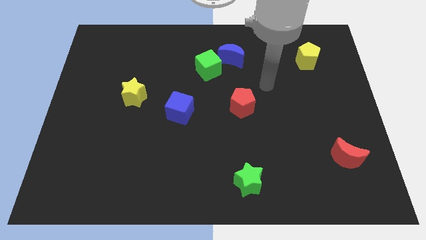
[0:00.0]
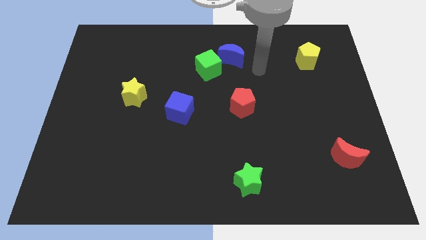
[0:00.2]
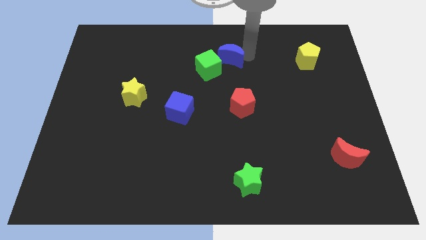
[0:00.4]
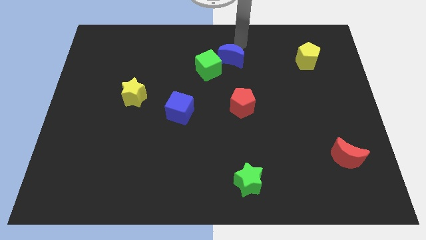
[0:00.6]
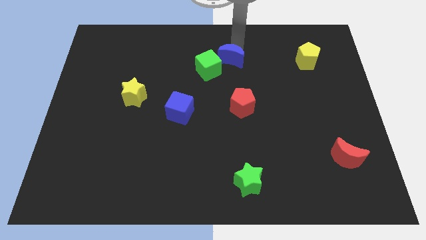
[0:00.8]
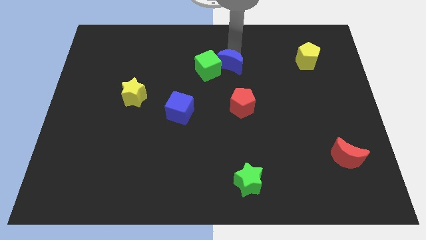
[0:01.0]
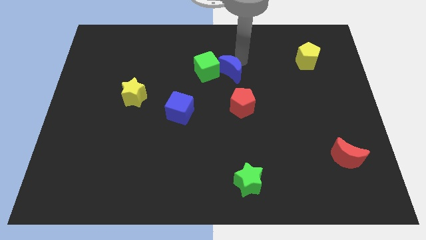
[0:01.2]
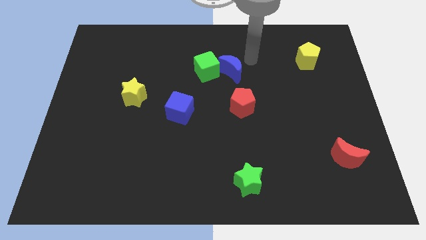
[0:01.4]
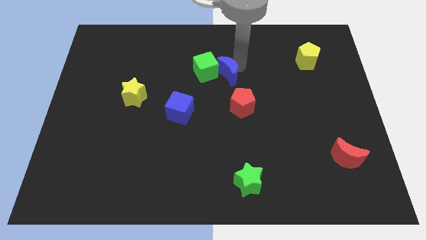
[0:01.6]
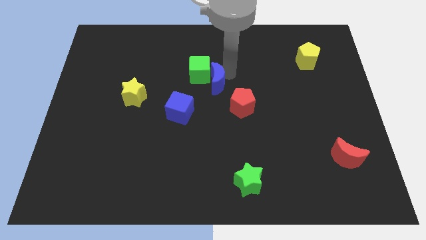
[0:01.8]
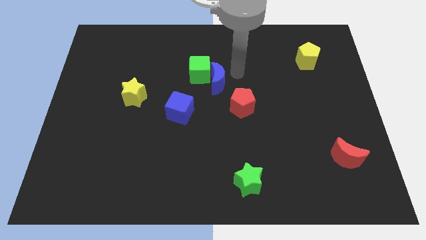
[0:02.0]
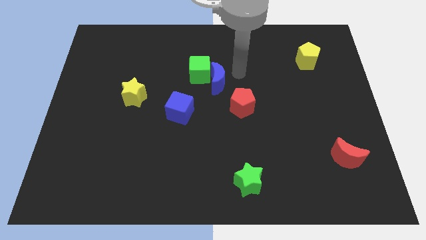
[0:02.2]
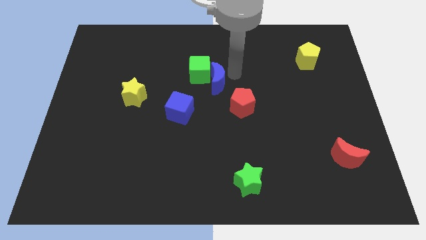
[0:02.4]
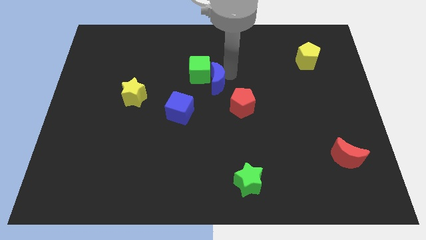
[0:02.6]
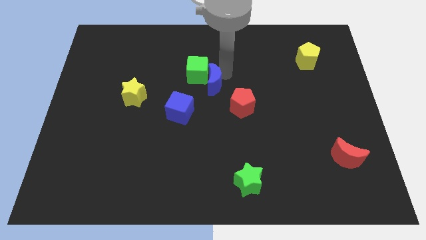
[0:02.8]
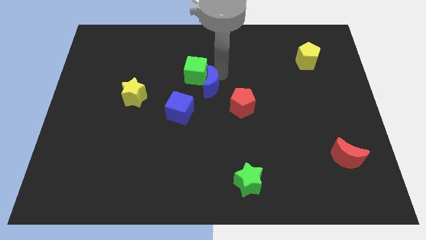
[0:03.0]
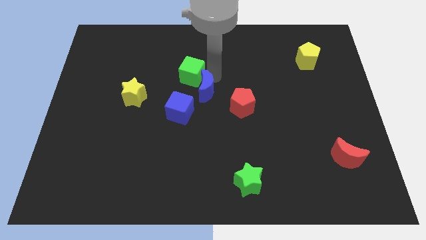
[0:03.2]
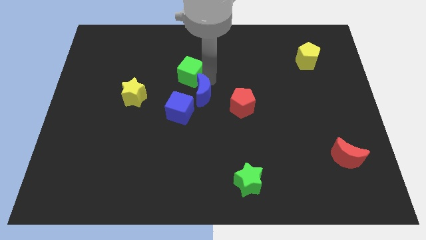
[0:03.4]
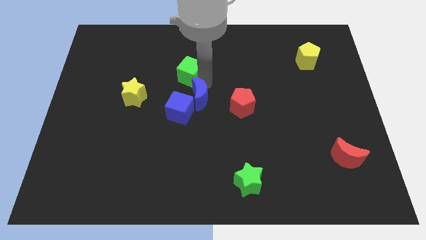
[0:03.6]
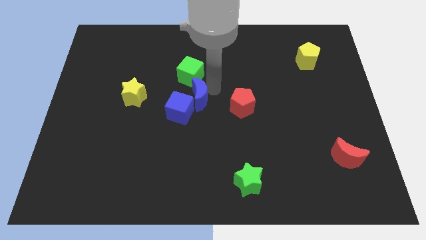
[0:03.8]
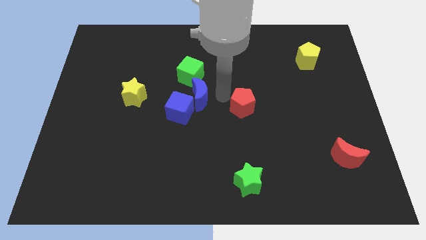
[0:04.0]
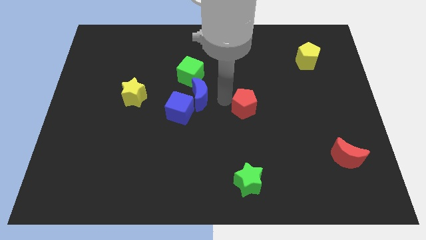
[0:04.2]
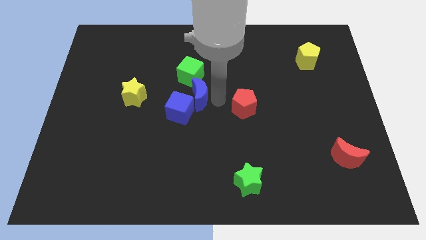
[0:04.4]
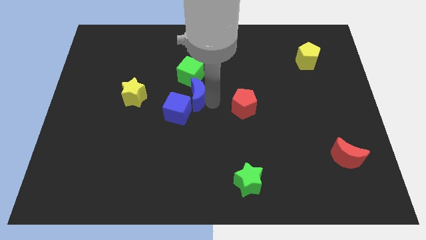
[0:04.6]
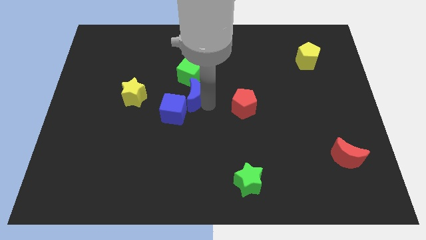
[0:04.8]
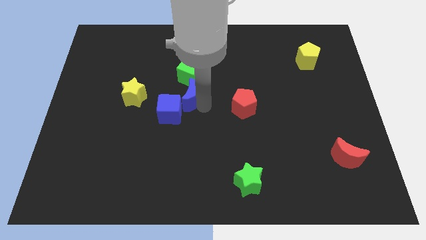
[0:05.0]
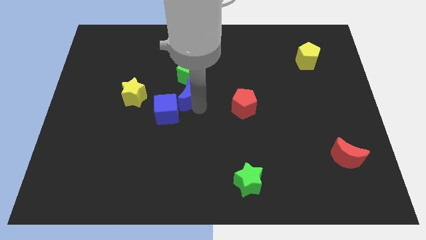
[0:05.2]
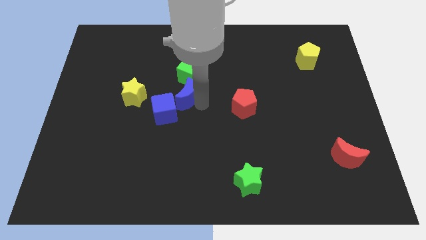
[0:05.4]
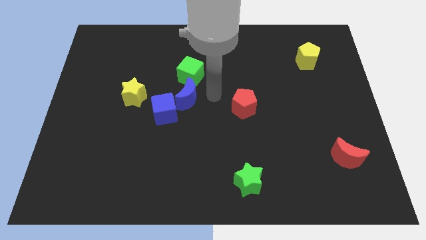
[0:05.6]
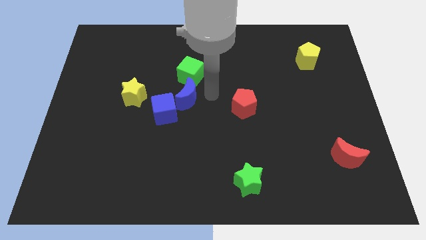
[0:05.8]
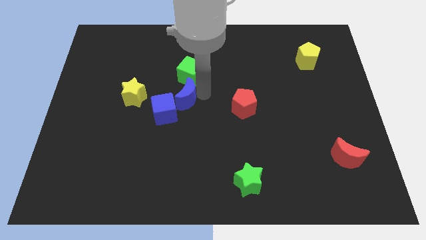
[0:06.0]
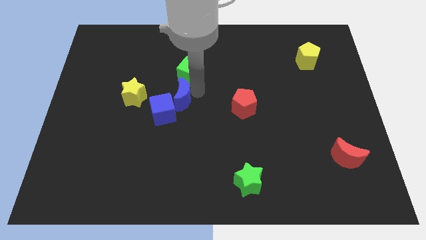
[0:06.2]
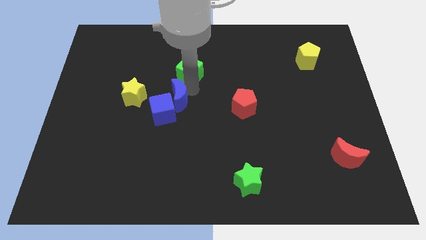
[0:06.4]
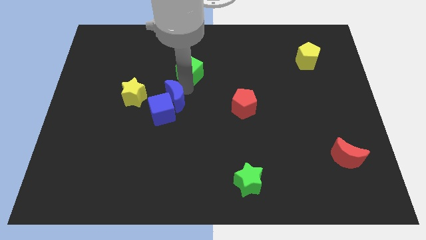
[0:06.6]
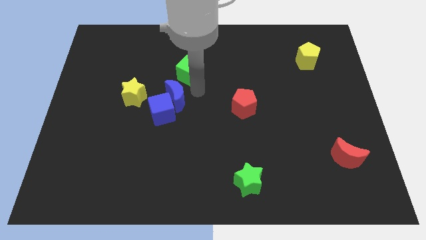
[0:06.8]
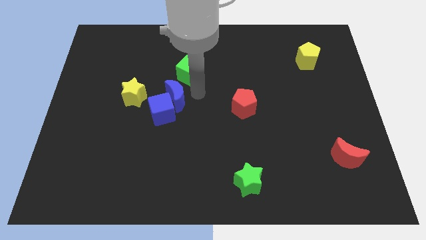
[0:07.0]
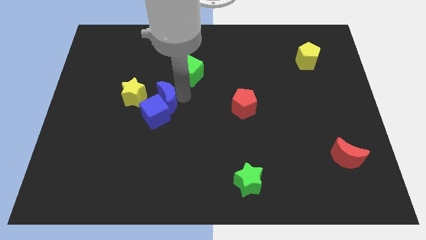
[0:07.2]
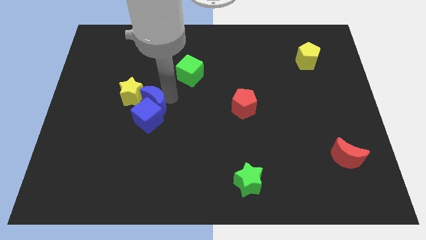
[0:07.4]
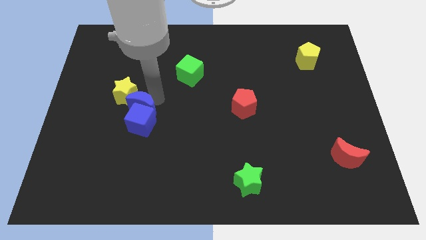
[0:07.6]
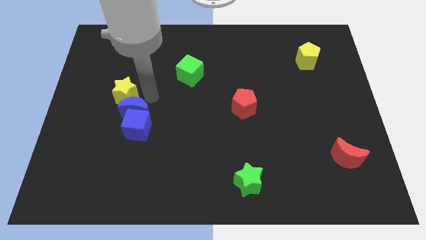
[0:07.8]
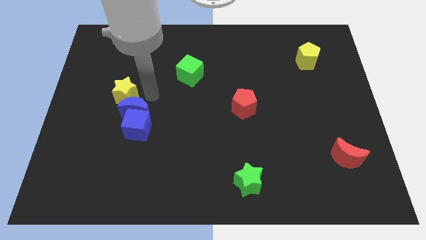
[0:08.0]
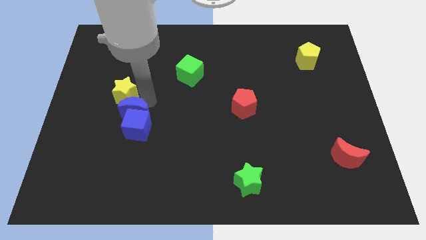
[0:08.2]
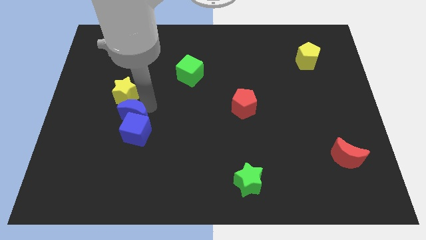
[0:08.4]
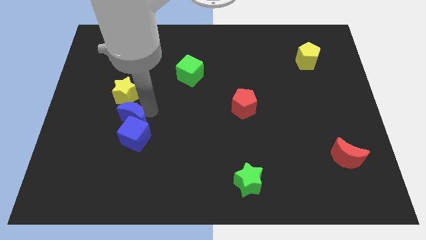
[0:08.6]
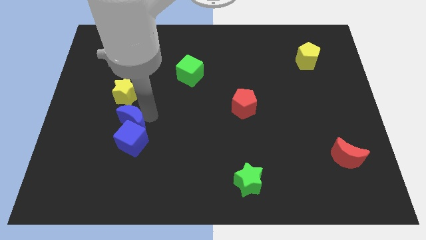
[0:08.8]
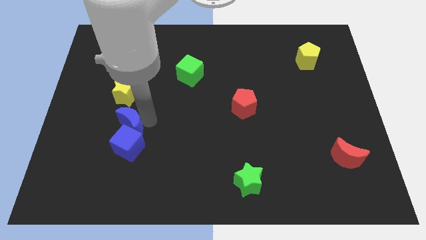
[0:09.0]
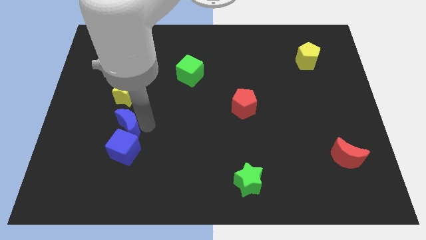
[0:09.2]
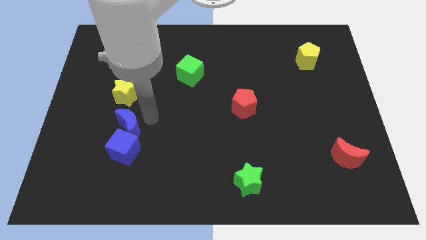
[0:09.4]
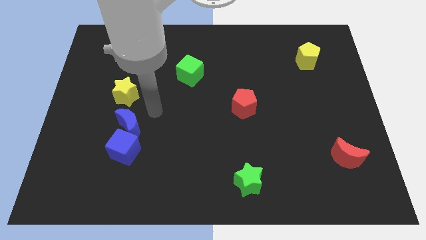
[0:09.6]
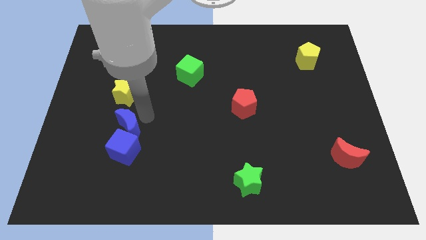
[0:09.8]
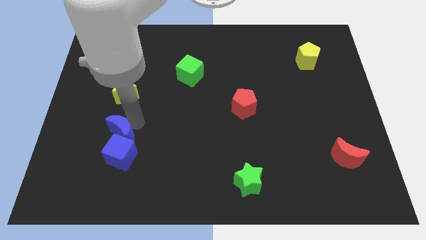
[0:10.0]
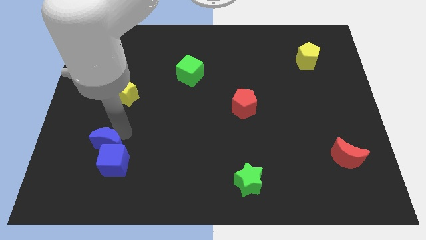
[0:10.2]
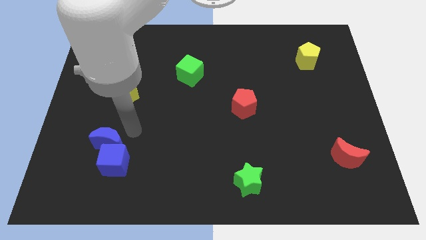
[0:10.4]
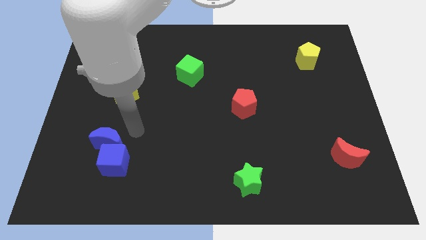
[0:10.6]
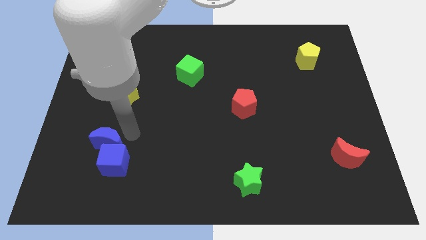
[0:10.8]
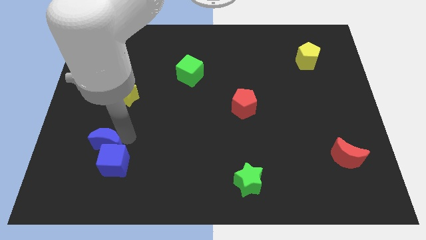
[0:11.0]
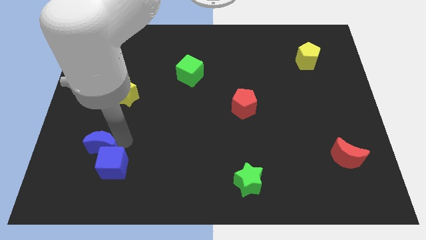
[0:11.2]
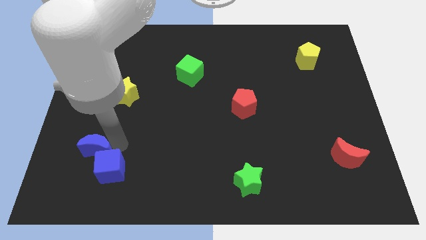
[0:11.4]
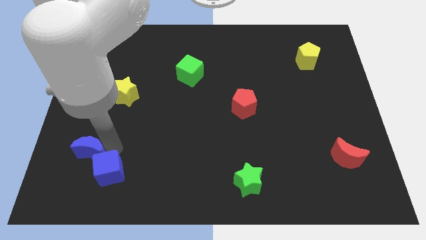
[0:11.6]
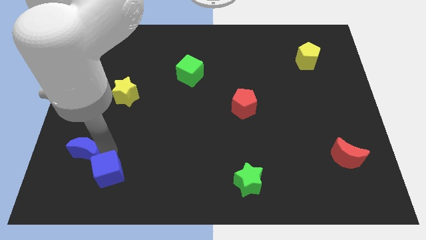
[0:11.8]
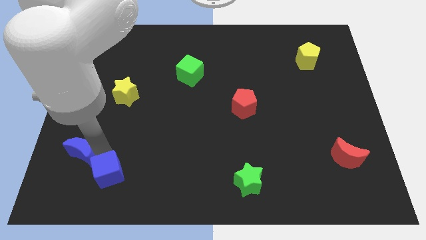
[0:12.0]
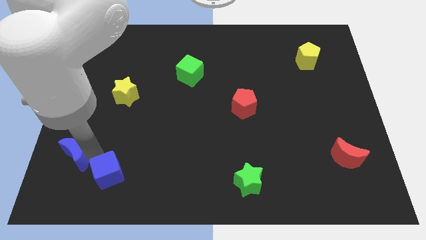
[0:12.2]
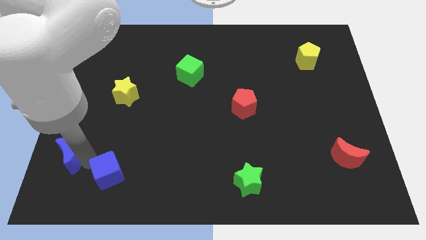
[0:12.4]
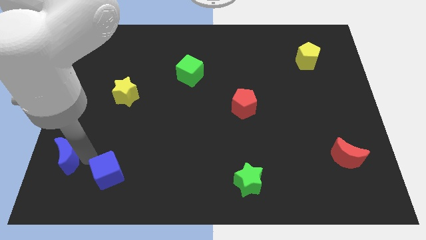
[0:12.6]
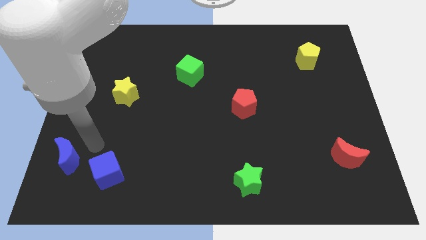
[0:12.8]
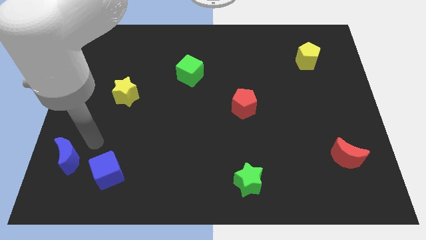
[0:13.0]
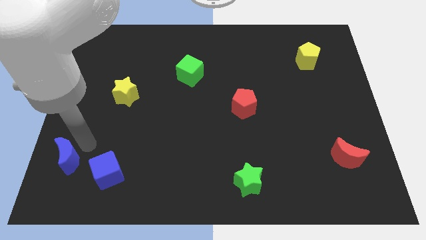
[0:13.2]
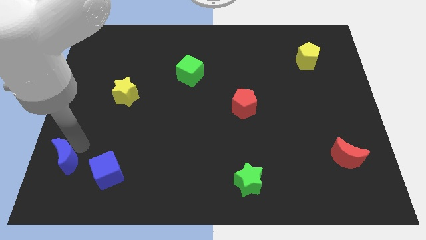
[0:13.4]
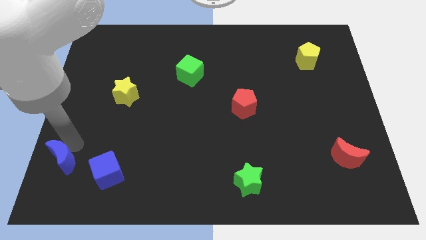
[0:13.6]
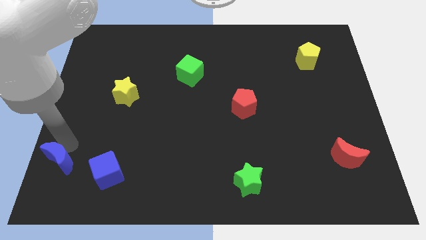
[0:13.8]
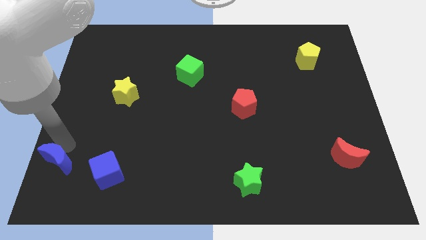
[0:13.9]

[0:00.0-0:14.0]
slide the blue moon to the lower left corner
